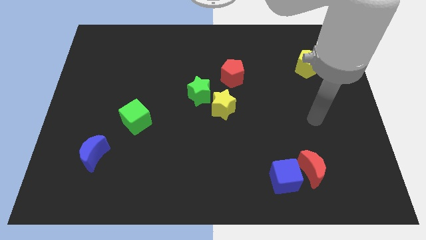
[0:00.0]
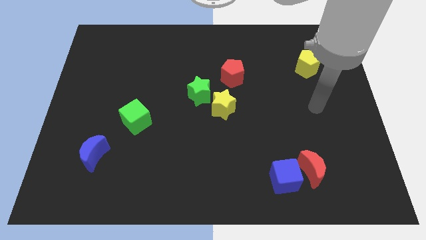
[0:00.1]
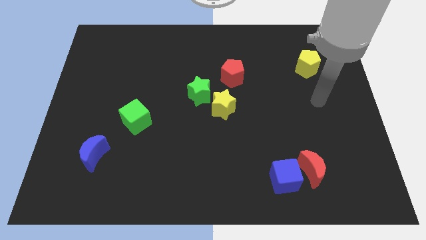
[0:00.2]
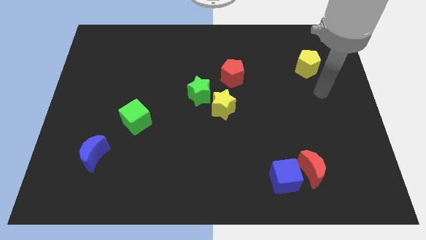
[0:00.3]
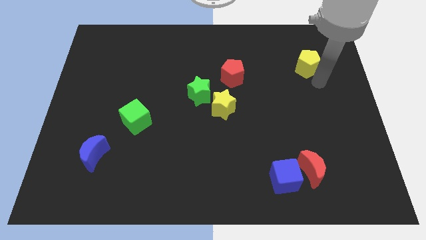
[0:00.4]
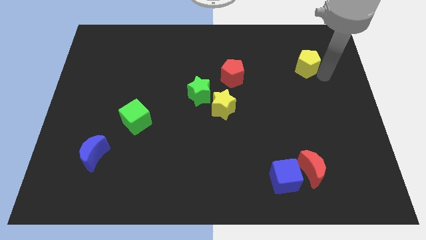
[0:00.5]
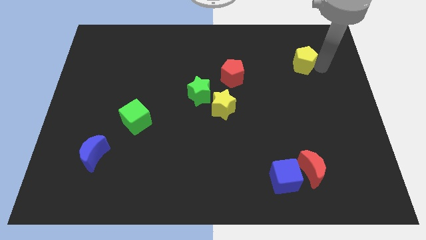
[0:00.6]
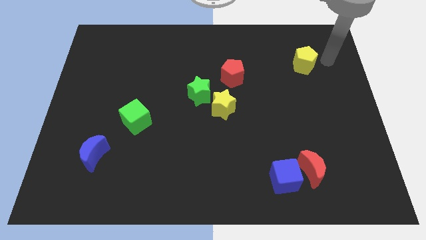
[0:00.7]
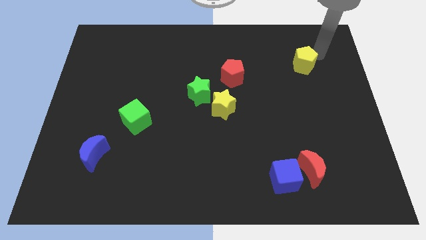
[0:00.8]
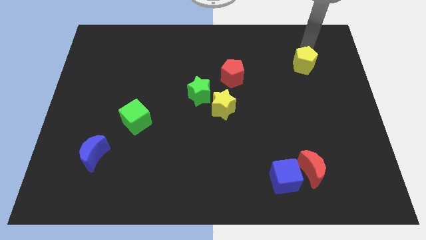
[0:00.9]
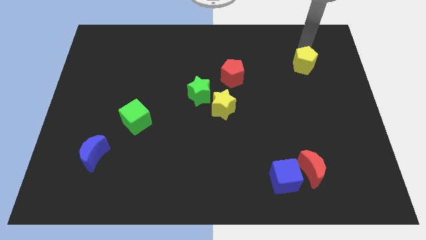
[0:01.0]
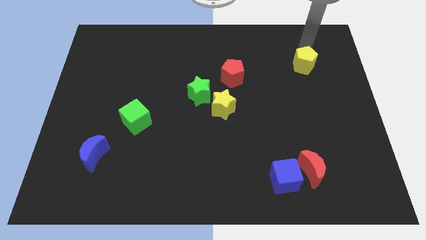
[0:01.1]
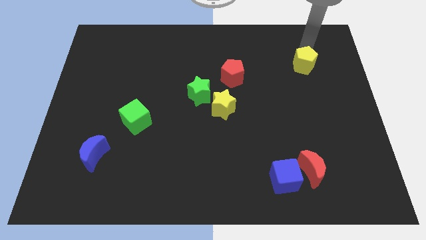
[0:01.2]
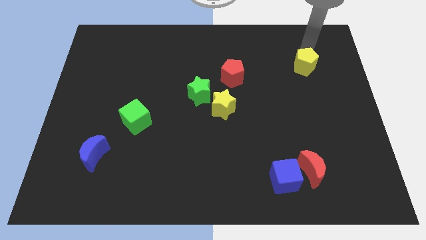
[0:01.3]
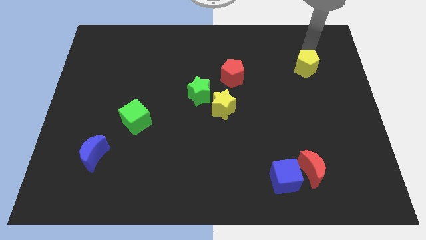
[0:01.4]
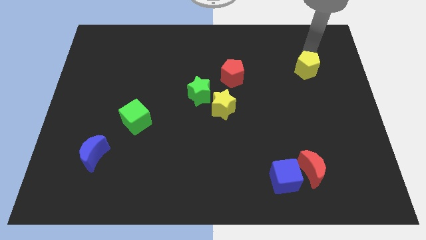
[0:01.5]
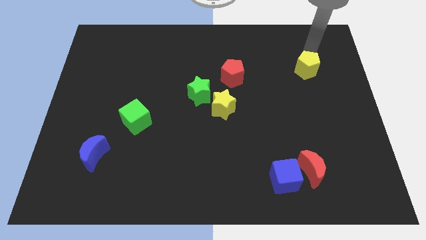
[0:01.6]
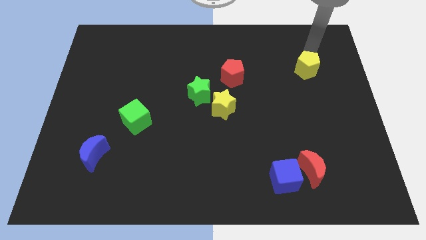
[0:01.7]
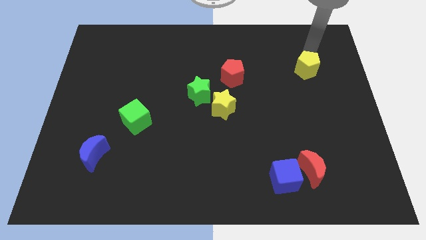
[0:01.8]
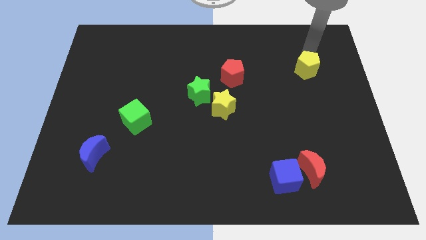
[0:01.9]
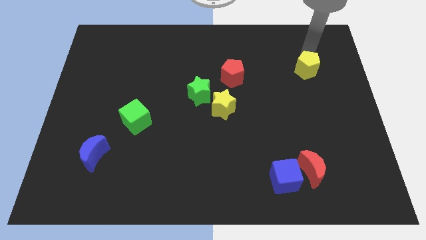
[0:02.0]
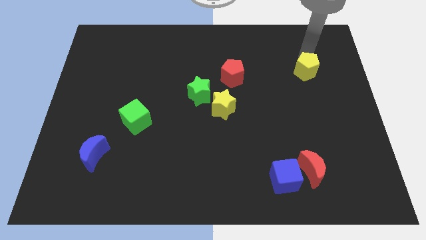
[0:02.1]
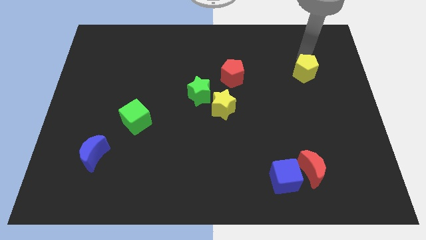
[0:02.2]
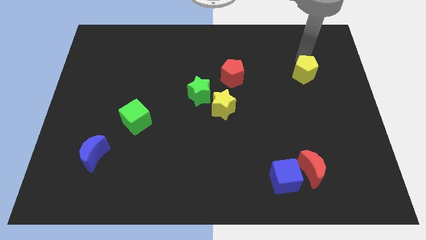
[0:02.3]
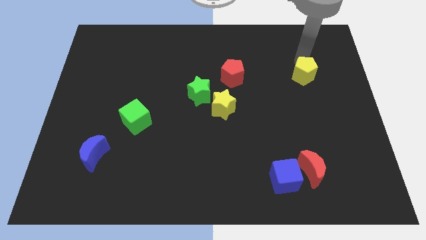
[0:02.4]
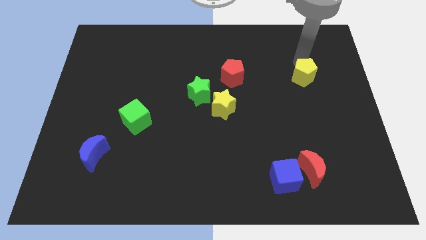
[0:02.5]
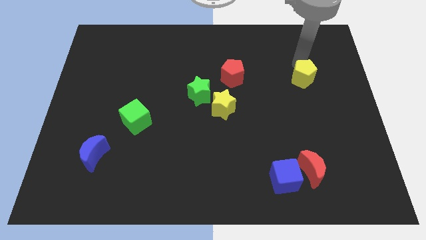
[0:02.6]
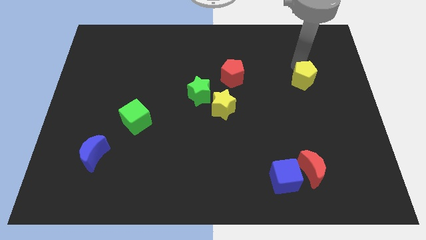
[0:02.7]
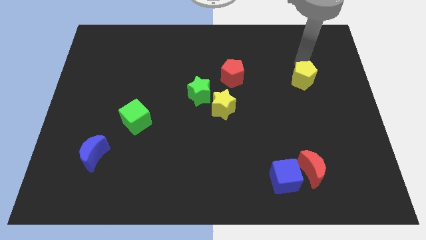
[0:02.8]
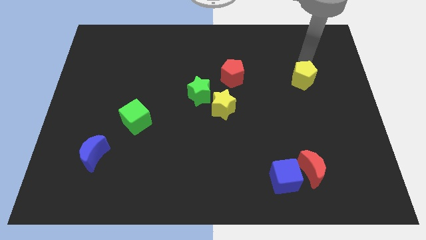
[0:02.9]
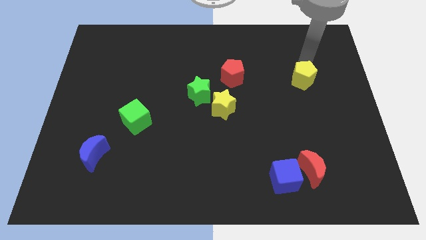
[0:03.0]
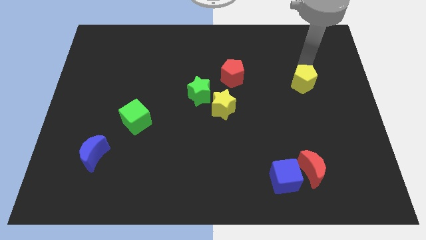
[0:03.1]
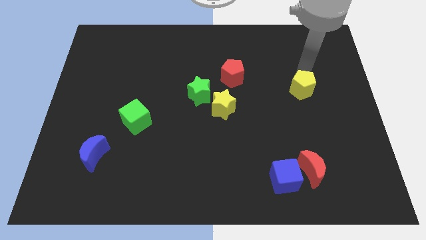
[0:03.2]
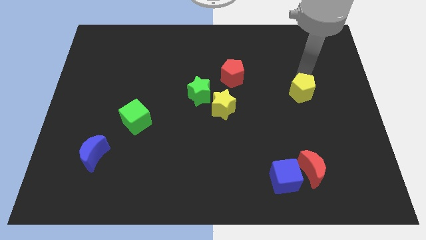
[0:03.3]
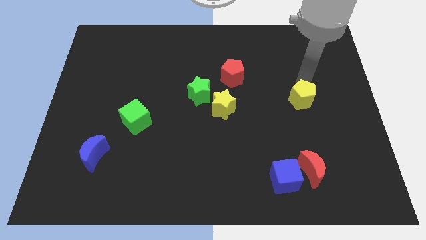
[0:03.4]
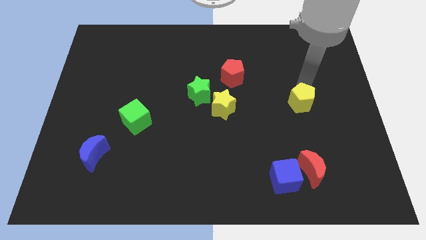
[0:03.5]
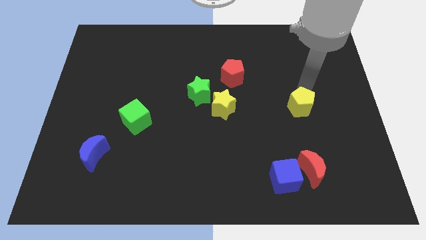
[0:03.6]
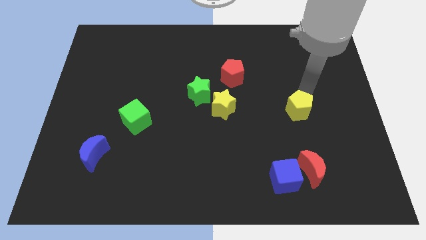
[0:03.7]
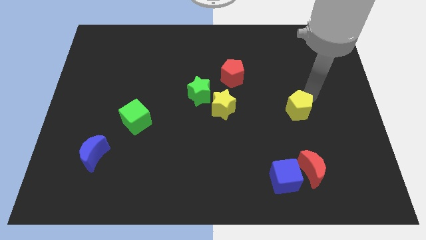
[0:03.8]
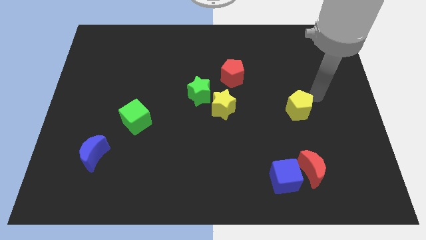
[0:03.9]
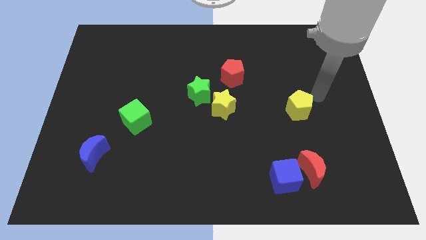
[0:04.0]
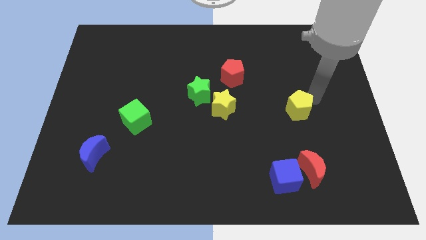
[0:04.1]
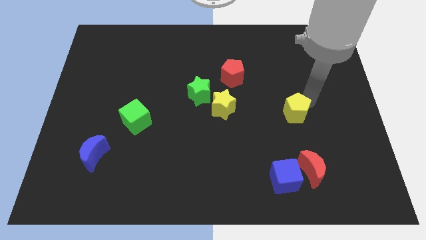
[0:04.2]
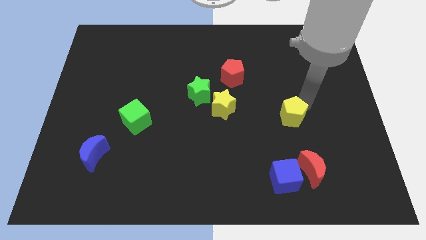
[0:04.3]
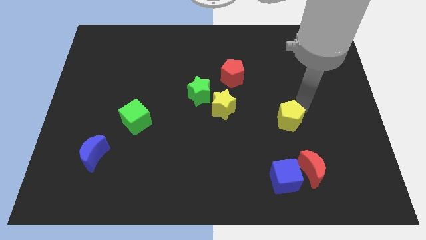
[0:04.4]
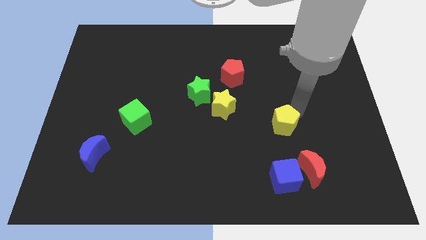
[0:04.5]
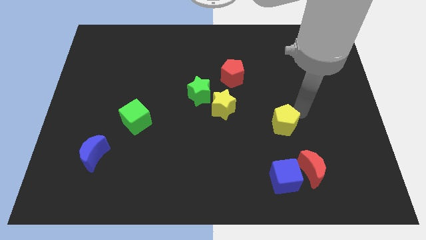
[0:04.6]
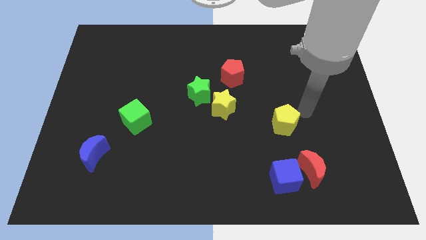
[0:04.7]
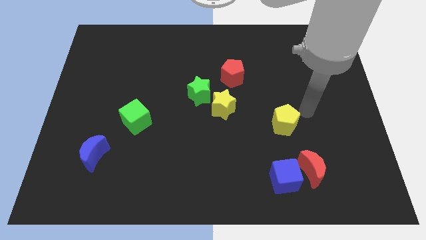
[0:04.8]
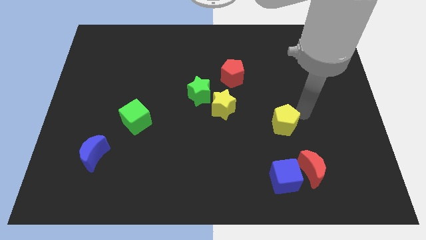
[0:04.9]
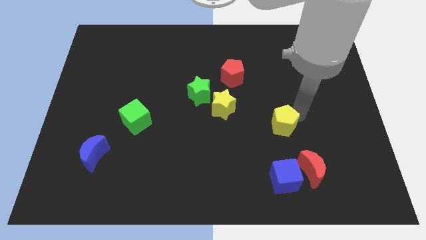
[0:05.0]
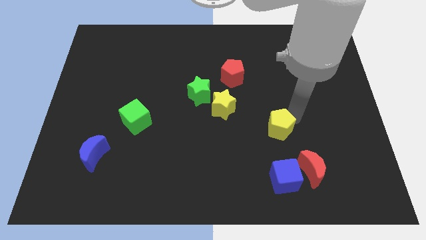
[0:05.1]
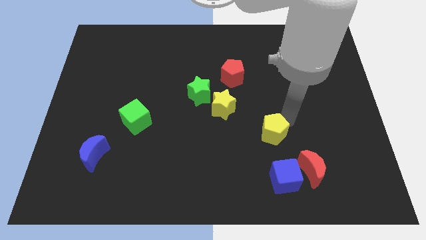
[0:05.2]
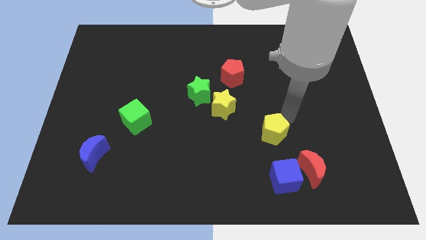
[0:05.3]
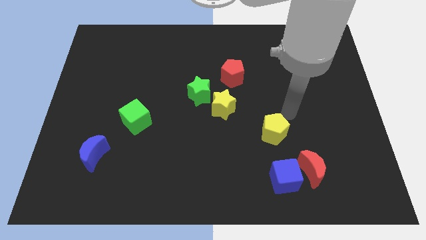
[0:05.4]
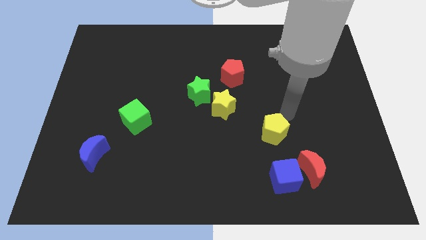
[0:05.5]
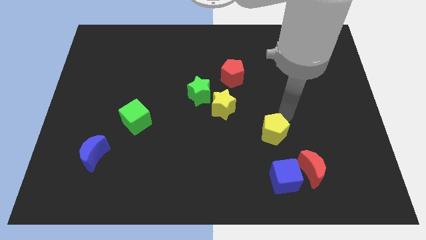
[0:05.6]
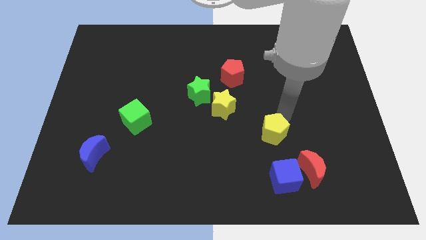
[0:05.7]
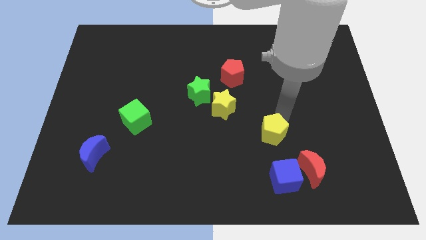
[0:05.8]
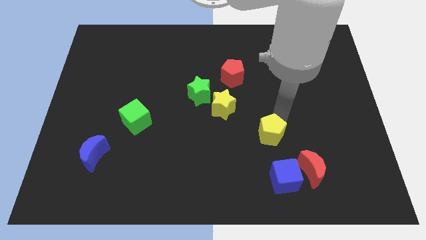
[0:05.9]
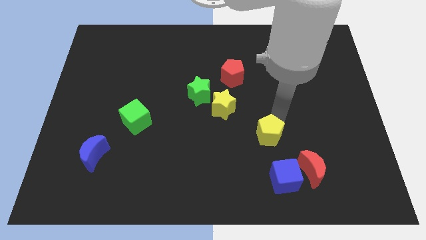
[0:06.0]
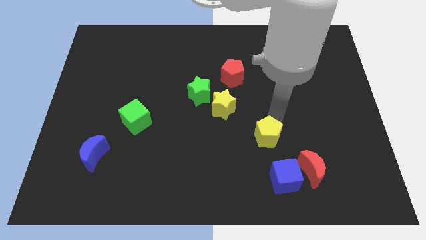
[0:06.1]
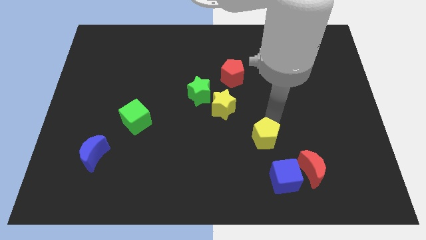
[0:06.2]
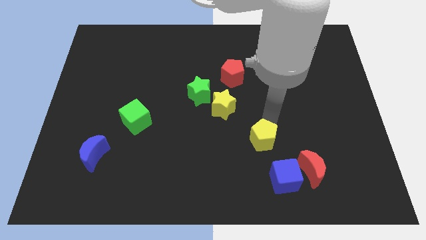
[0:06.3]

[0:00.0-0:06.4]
push the yellow pentagon to the top left side of the blue cube

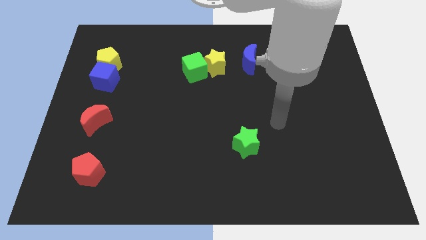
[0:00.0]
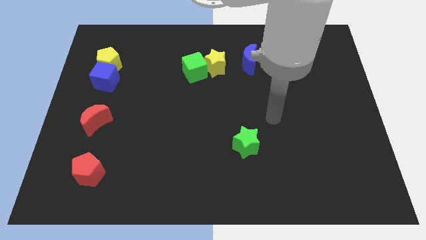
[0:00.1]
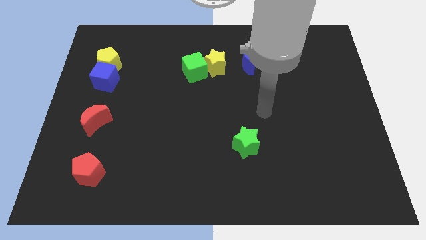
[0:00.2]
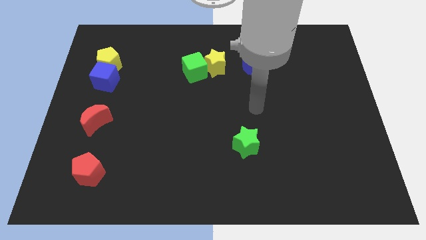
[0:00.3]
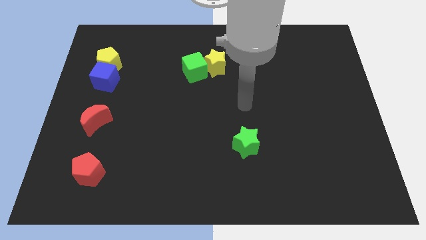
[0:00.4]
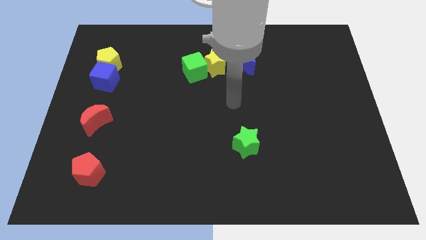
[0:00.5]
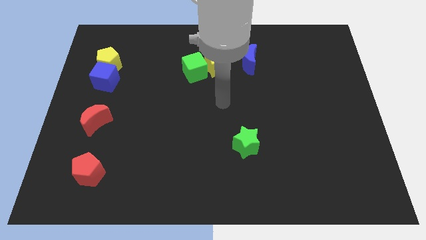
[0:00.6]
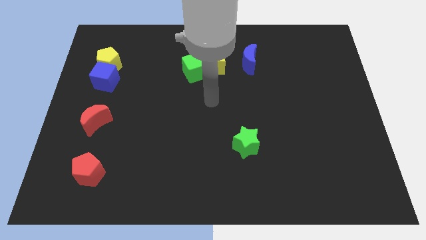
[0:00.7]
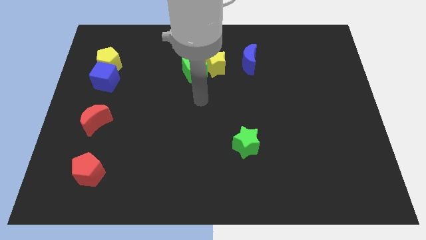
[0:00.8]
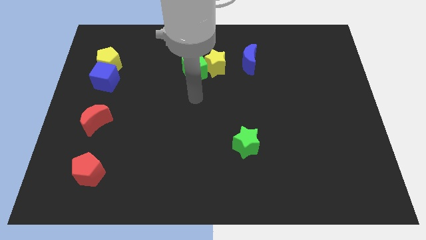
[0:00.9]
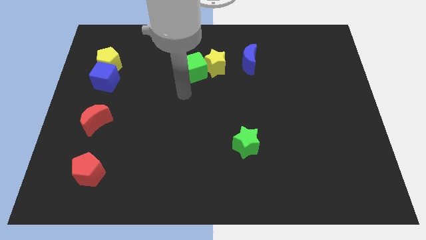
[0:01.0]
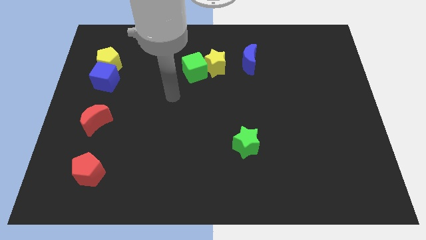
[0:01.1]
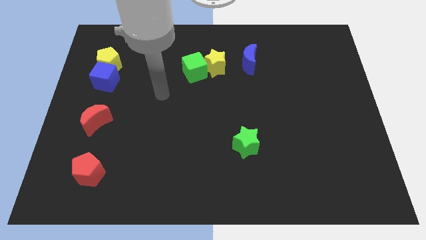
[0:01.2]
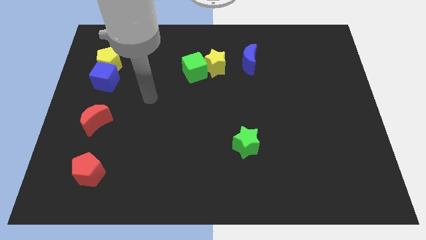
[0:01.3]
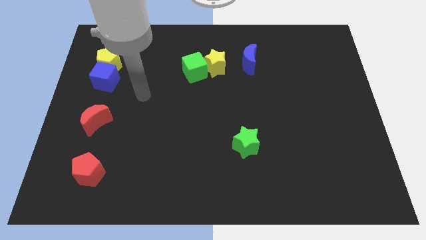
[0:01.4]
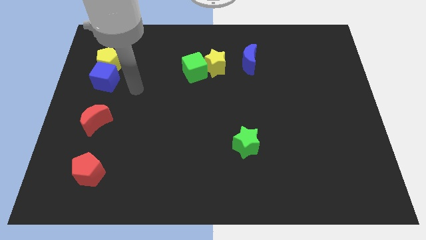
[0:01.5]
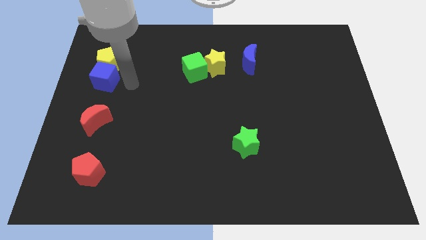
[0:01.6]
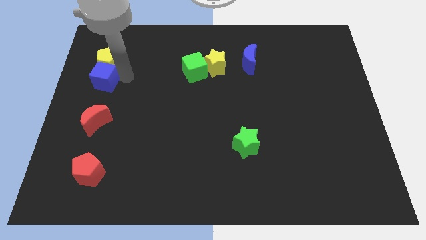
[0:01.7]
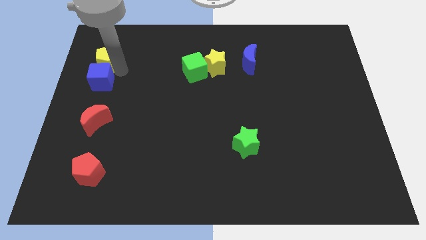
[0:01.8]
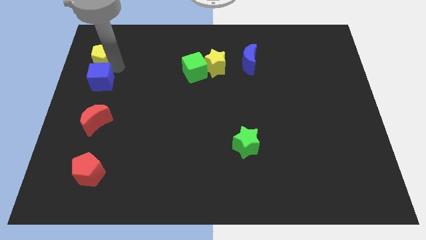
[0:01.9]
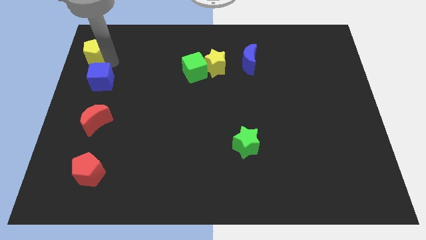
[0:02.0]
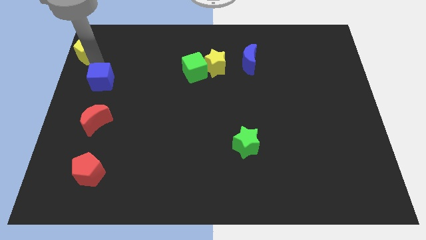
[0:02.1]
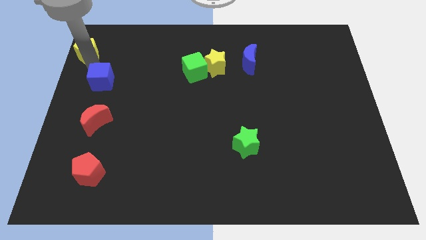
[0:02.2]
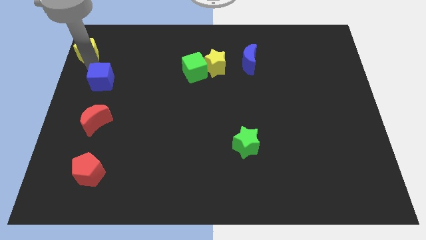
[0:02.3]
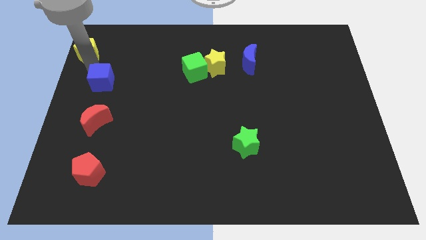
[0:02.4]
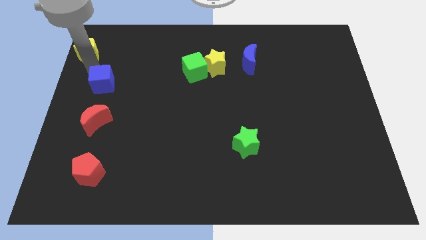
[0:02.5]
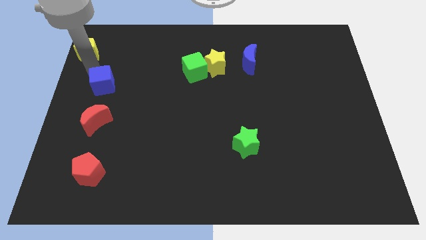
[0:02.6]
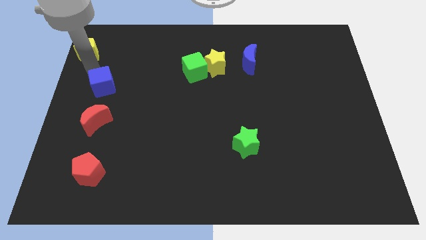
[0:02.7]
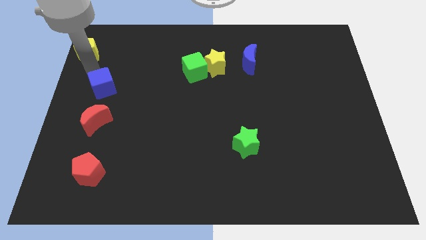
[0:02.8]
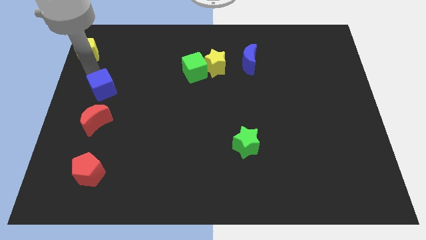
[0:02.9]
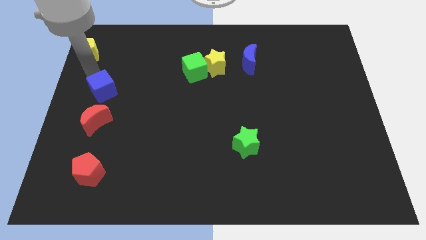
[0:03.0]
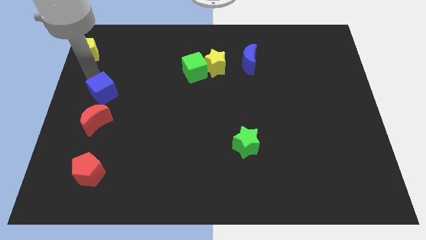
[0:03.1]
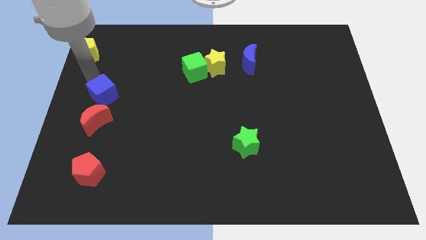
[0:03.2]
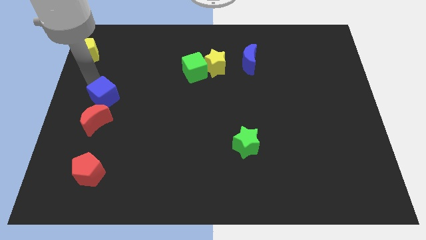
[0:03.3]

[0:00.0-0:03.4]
push the blue cube to the top right side of the red moon
